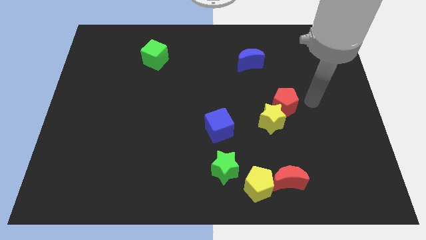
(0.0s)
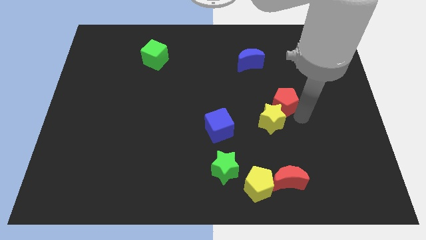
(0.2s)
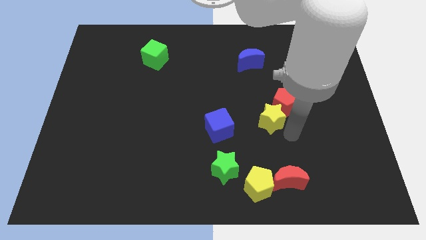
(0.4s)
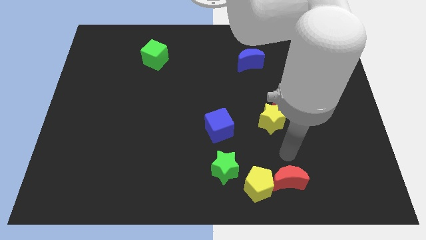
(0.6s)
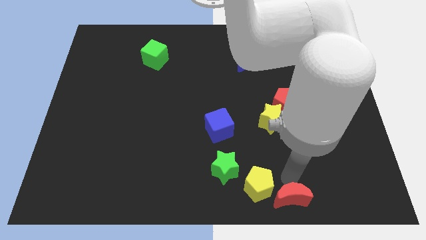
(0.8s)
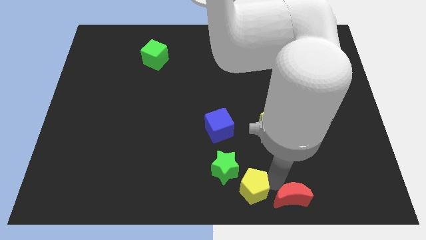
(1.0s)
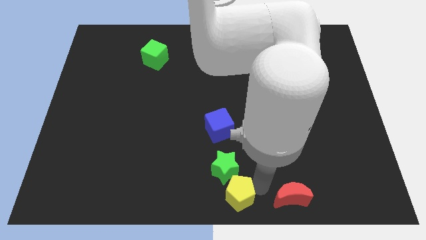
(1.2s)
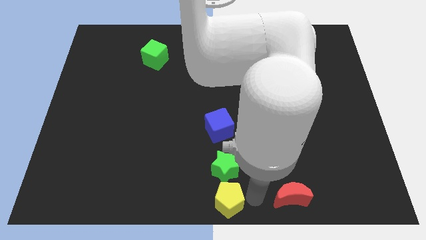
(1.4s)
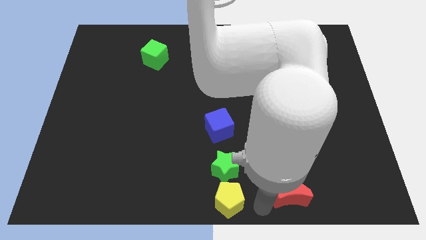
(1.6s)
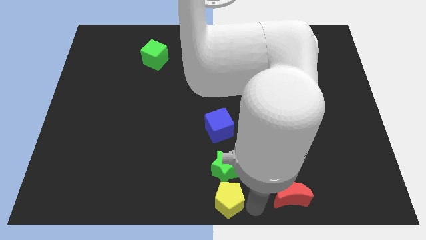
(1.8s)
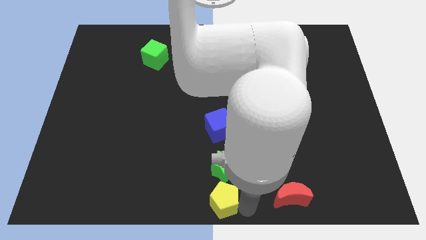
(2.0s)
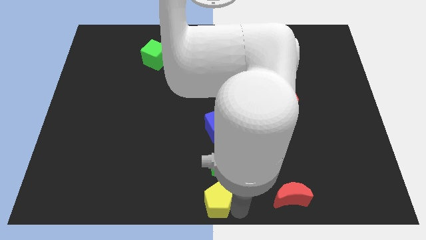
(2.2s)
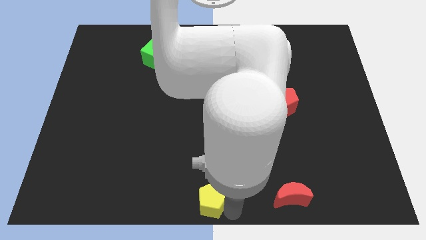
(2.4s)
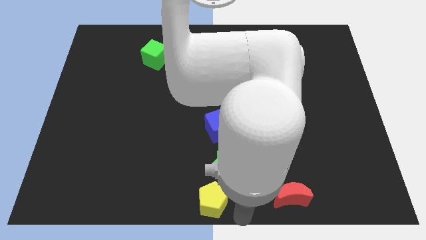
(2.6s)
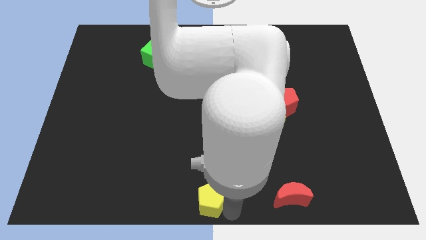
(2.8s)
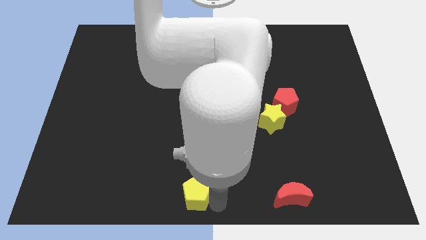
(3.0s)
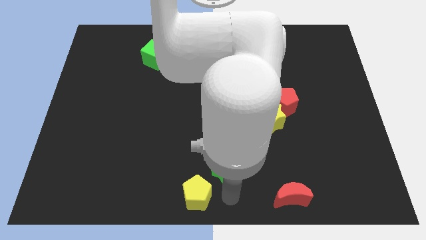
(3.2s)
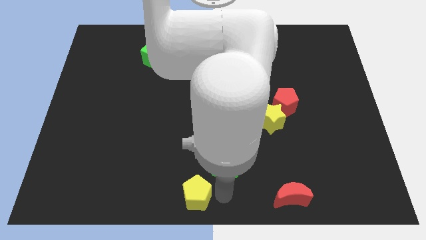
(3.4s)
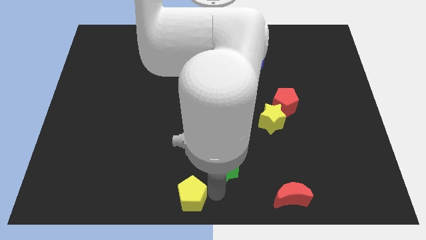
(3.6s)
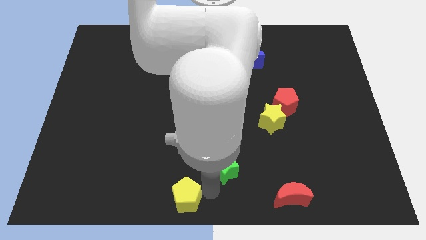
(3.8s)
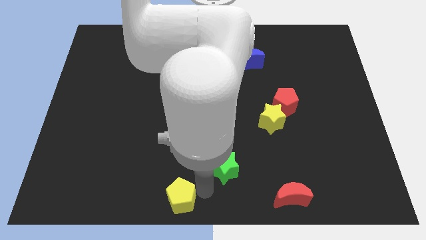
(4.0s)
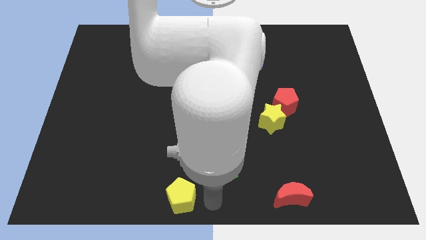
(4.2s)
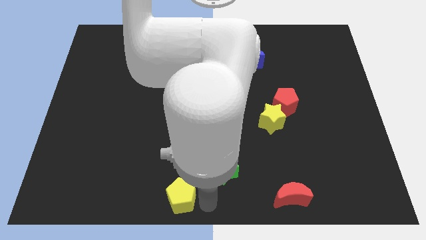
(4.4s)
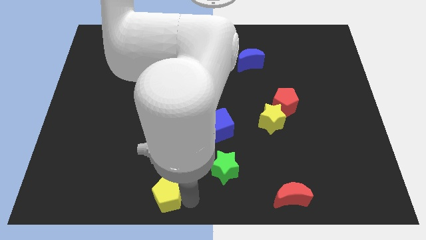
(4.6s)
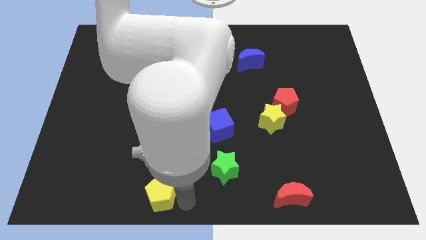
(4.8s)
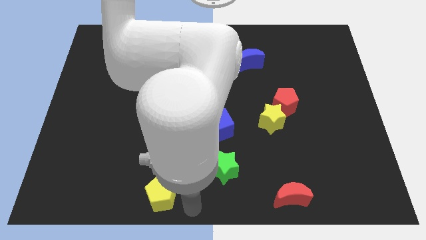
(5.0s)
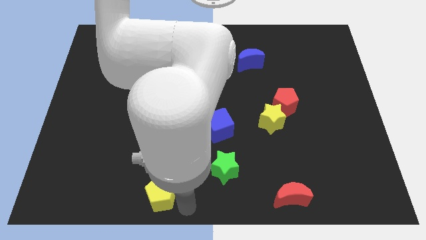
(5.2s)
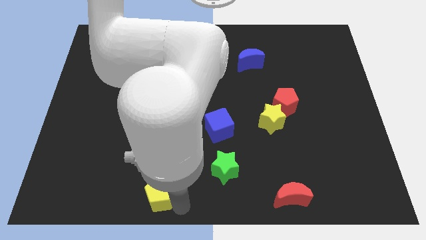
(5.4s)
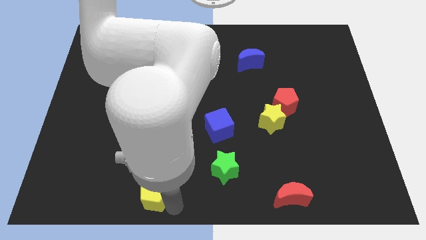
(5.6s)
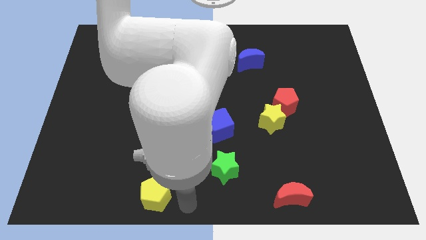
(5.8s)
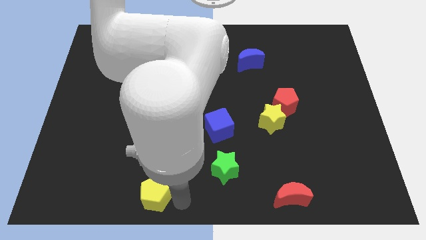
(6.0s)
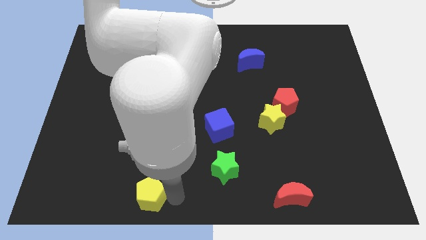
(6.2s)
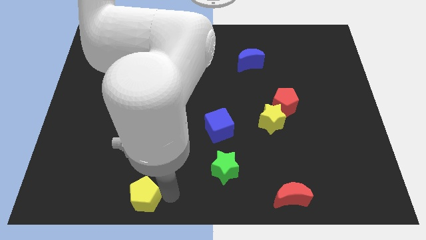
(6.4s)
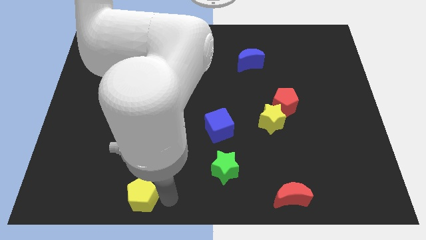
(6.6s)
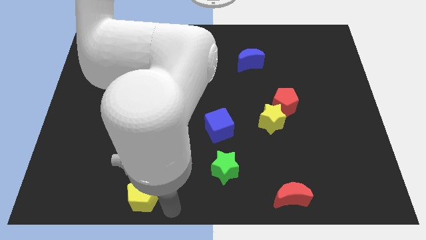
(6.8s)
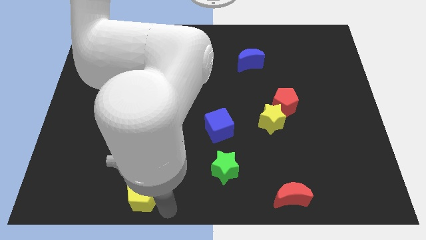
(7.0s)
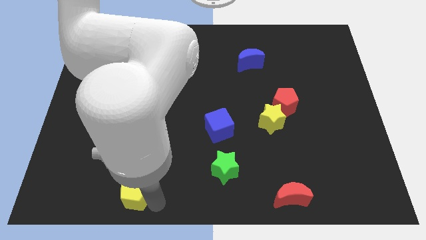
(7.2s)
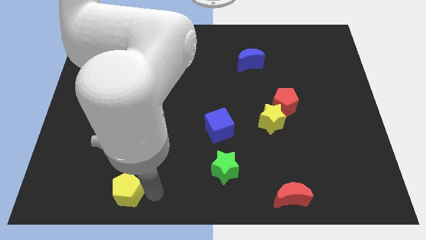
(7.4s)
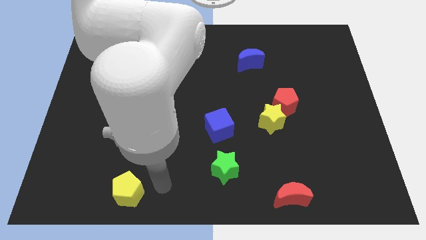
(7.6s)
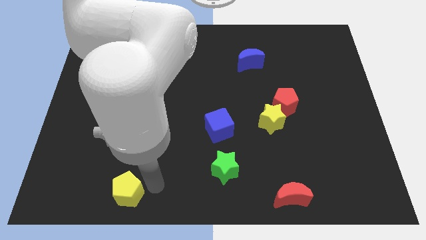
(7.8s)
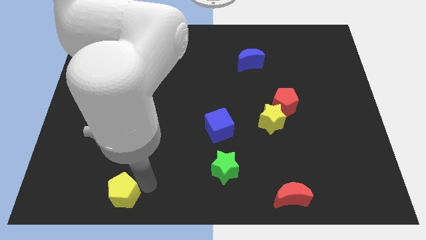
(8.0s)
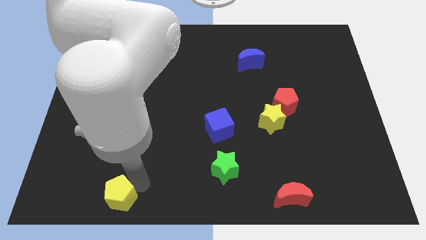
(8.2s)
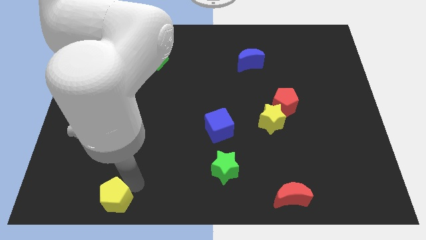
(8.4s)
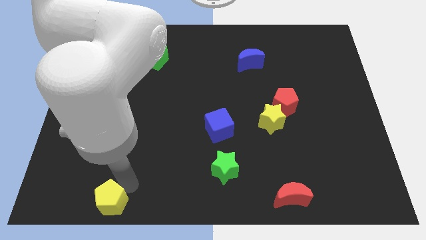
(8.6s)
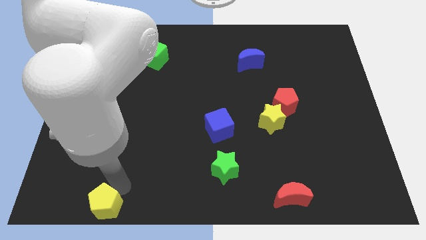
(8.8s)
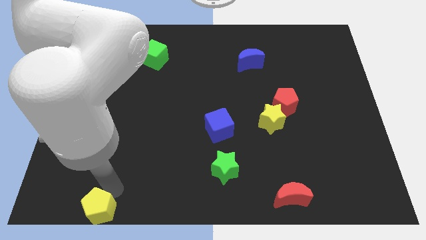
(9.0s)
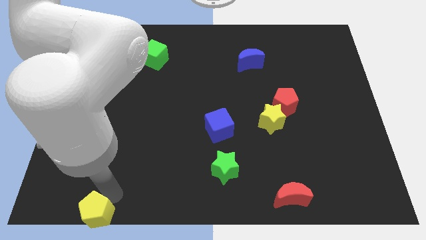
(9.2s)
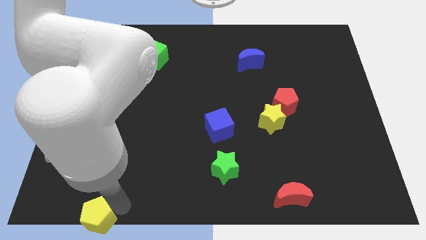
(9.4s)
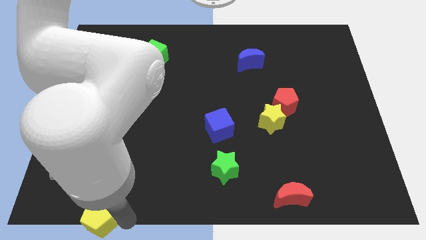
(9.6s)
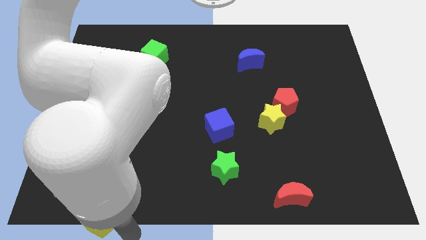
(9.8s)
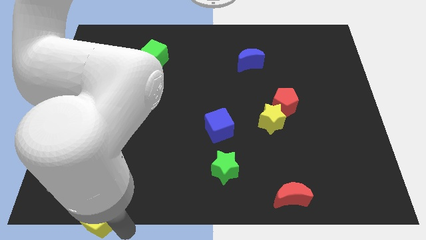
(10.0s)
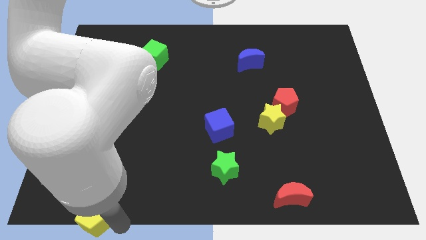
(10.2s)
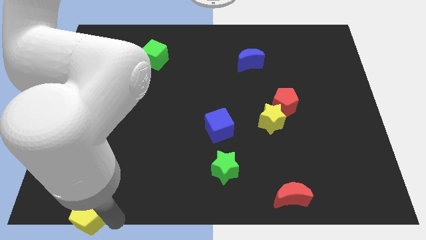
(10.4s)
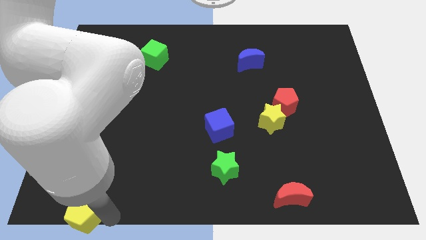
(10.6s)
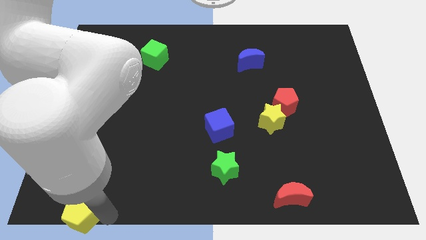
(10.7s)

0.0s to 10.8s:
push the yellow pentagon to the bottom left
